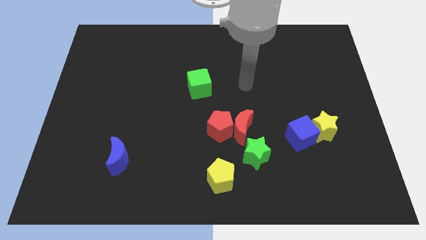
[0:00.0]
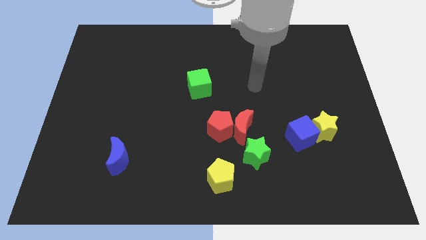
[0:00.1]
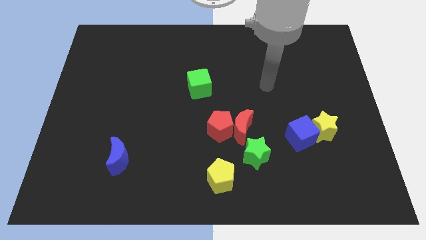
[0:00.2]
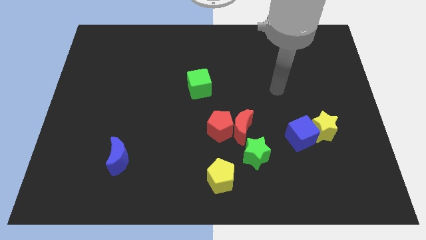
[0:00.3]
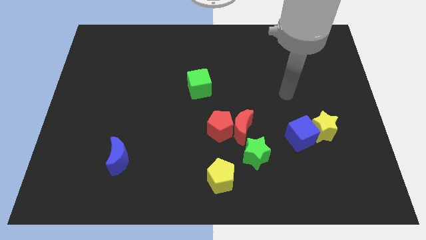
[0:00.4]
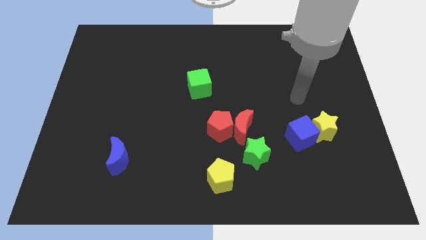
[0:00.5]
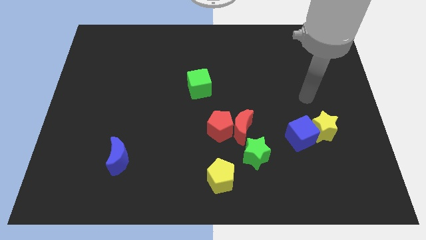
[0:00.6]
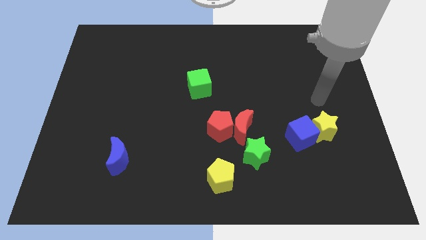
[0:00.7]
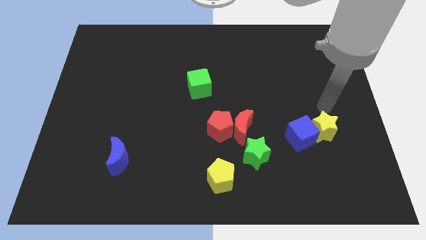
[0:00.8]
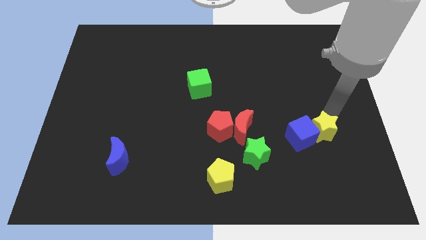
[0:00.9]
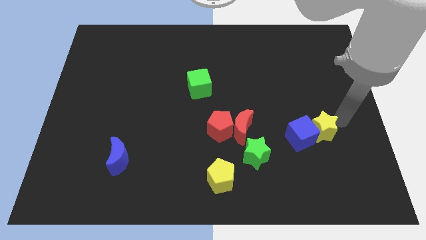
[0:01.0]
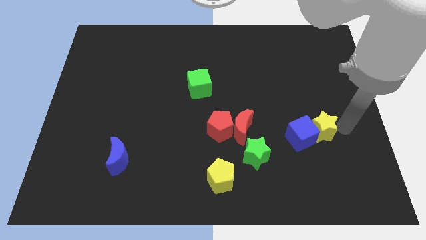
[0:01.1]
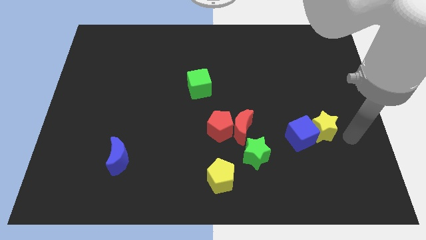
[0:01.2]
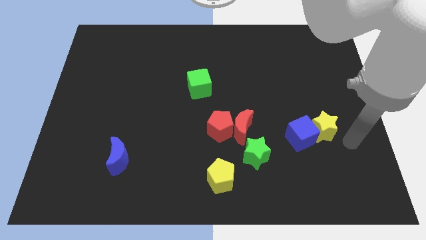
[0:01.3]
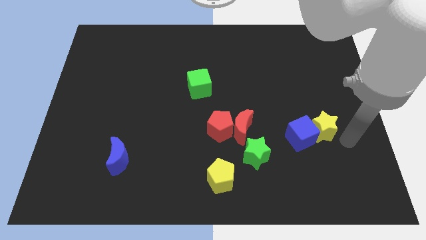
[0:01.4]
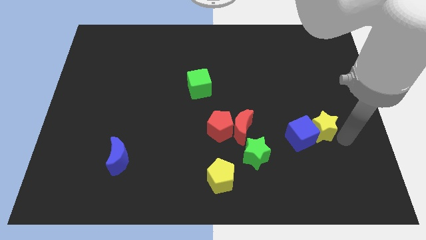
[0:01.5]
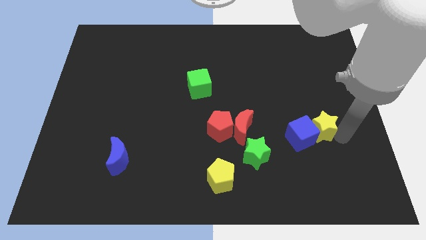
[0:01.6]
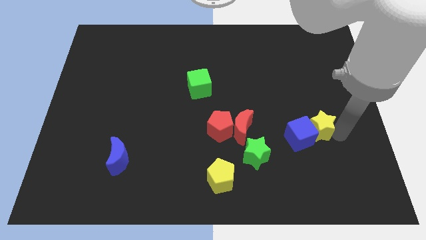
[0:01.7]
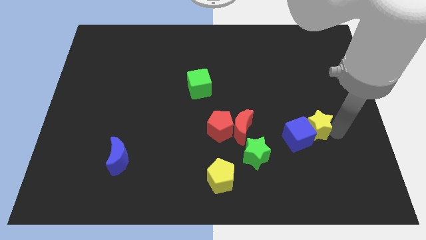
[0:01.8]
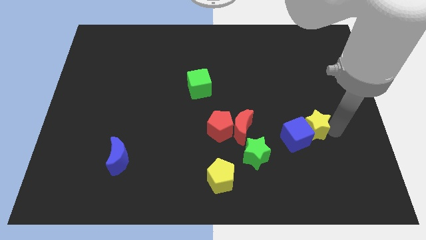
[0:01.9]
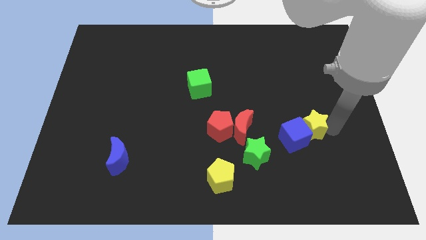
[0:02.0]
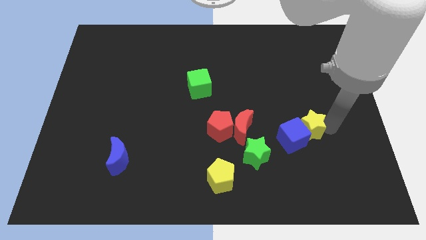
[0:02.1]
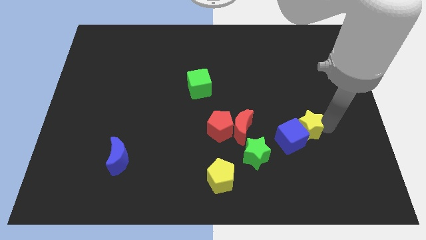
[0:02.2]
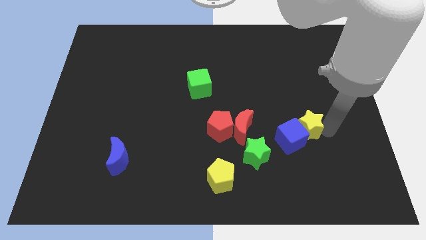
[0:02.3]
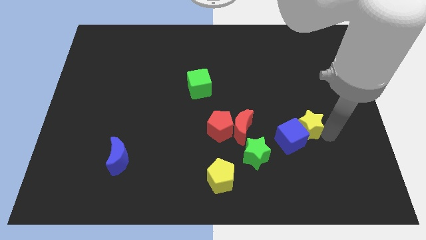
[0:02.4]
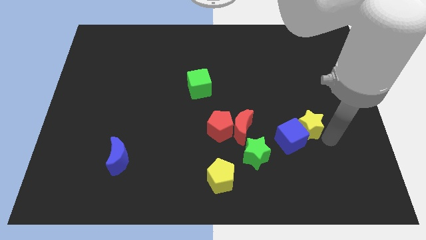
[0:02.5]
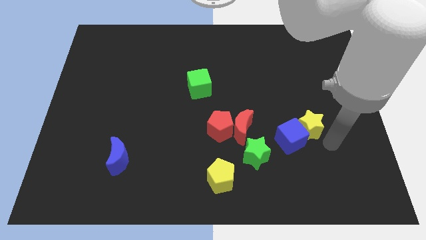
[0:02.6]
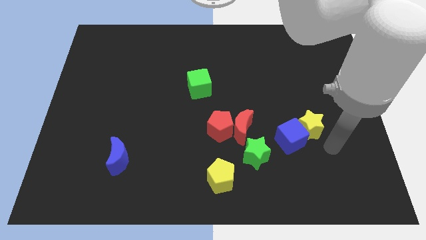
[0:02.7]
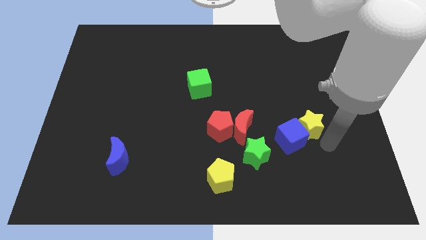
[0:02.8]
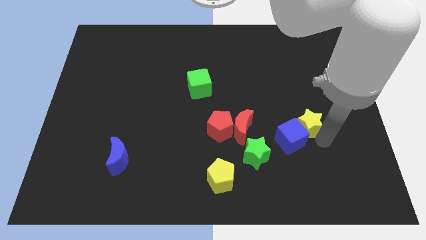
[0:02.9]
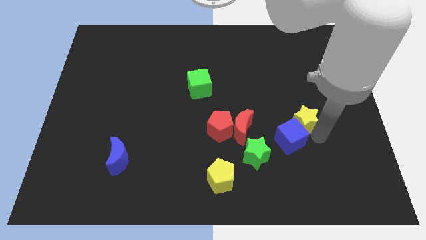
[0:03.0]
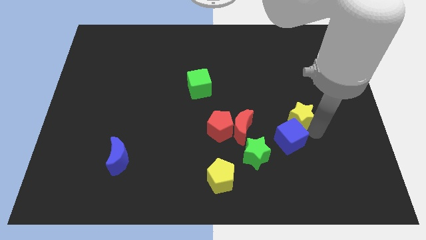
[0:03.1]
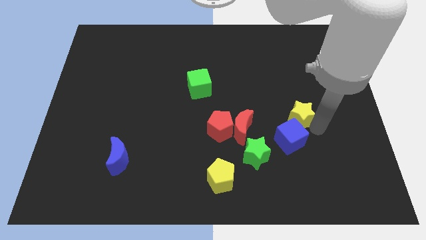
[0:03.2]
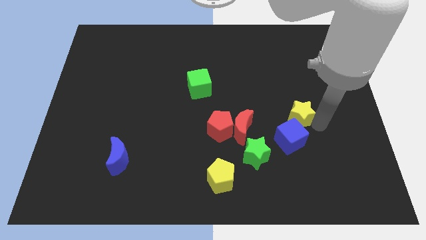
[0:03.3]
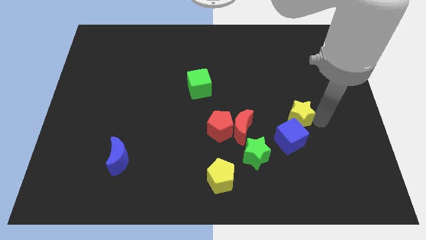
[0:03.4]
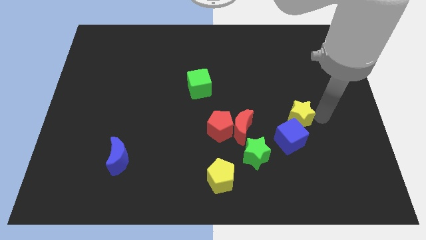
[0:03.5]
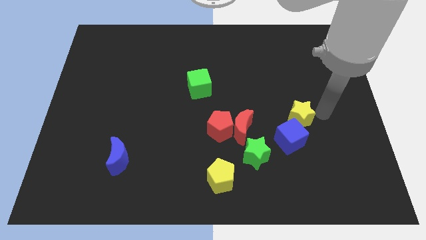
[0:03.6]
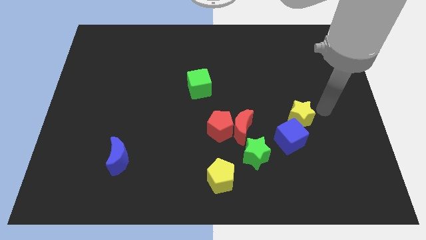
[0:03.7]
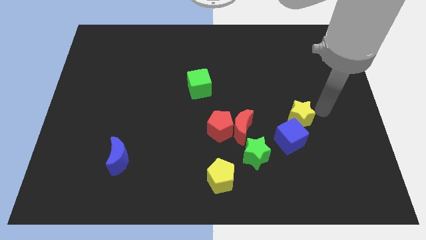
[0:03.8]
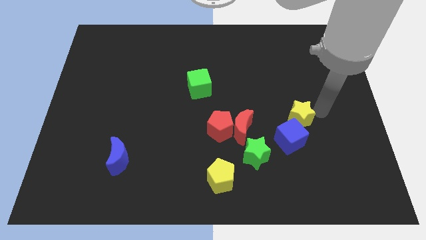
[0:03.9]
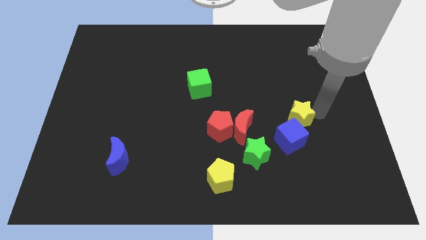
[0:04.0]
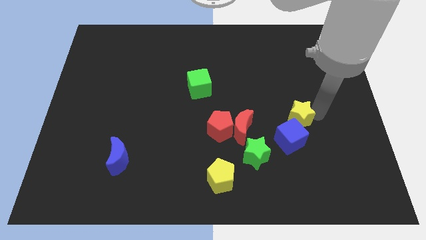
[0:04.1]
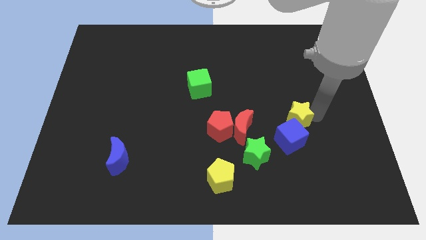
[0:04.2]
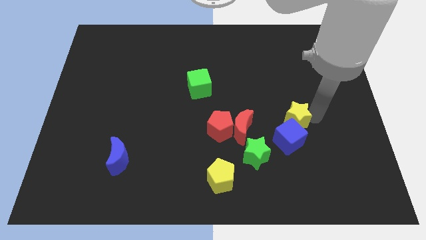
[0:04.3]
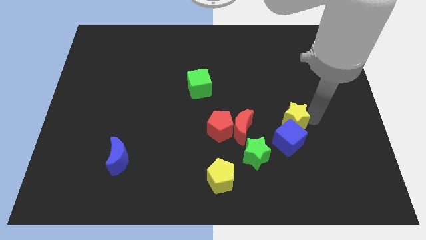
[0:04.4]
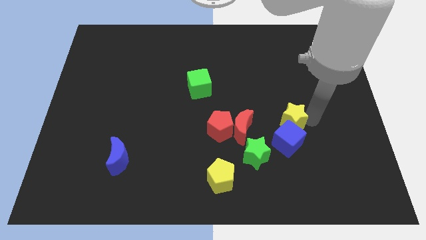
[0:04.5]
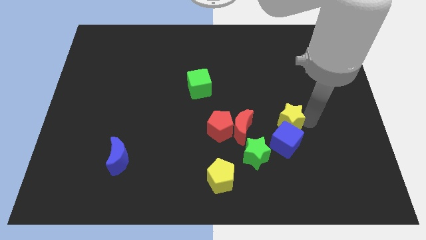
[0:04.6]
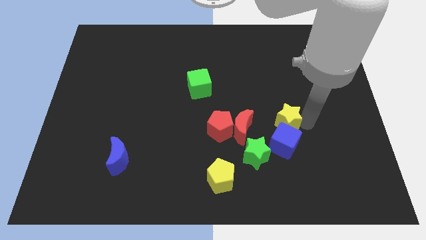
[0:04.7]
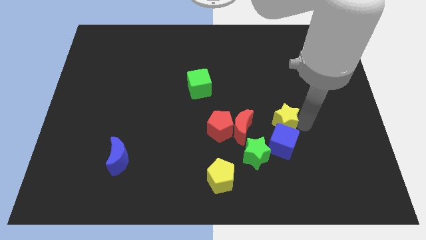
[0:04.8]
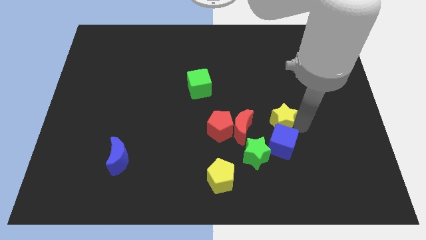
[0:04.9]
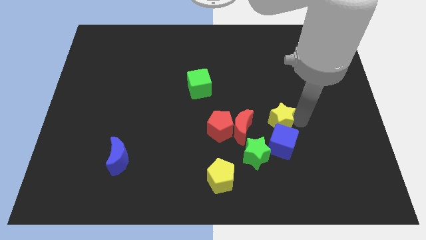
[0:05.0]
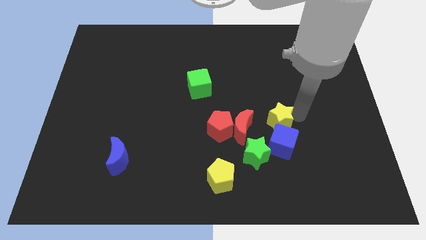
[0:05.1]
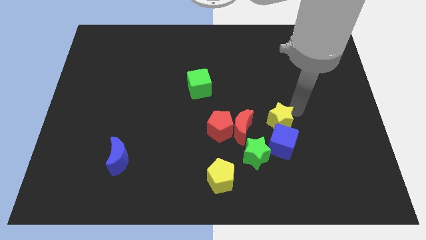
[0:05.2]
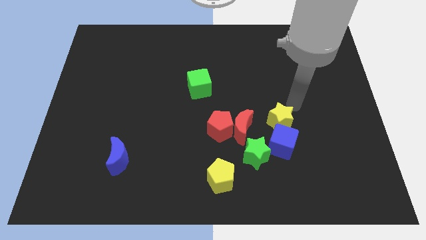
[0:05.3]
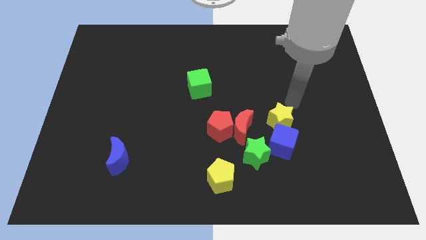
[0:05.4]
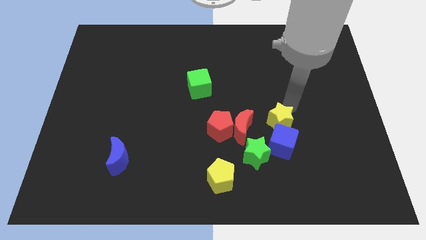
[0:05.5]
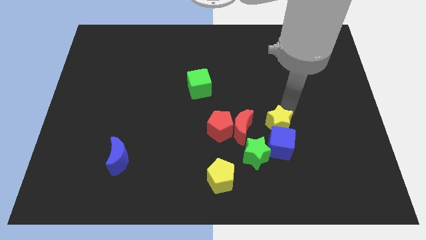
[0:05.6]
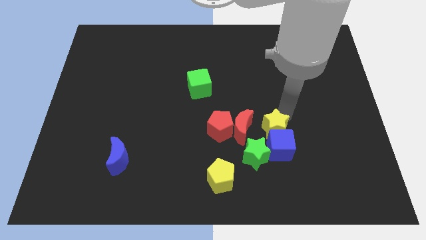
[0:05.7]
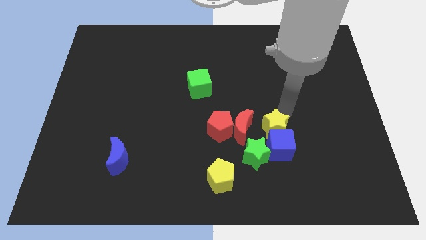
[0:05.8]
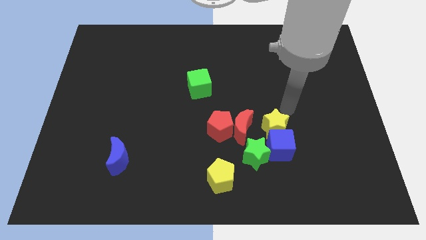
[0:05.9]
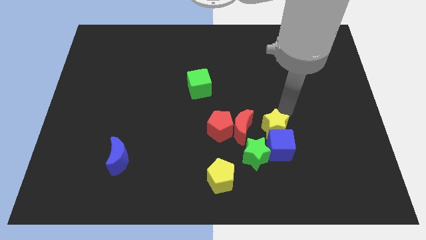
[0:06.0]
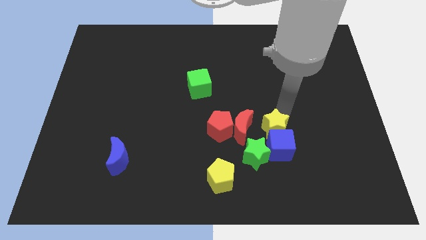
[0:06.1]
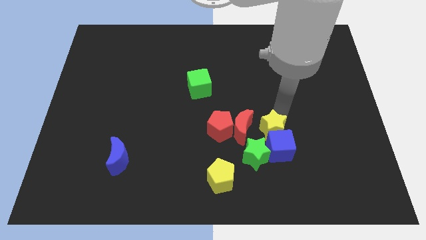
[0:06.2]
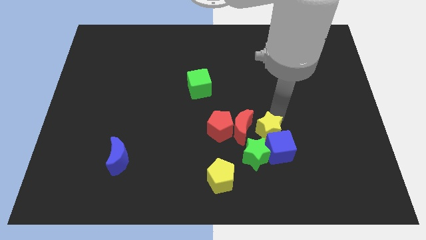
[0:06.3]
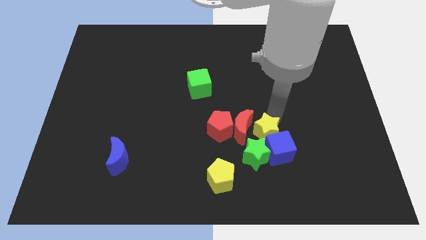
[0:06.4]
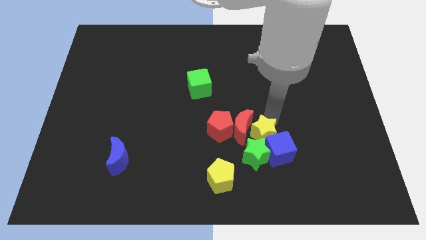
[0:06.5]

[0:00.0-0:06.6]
push the yellow star close to the green star

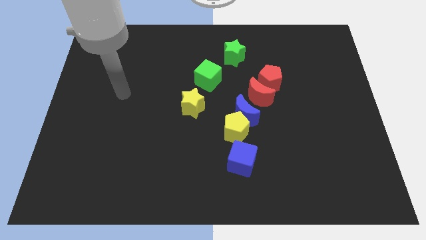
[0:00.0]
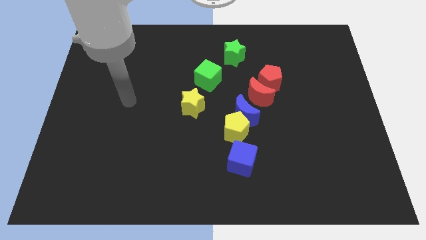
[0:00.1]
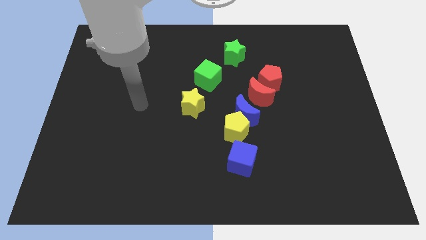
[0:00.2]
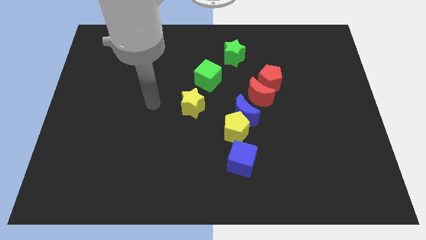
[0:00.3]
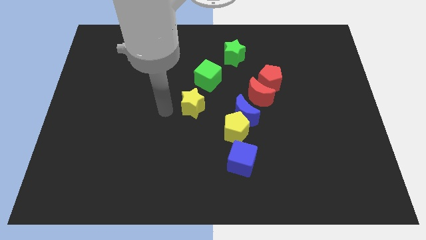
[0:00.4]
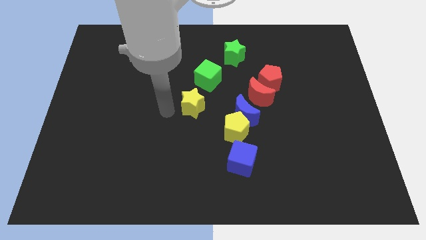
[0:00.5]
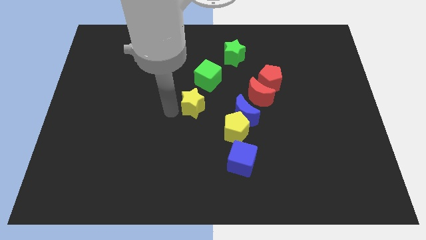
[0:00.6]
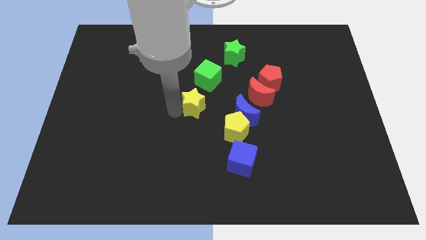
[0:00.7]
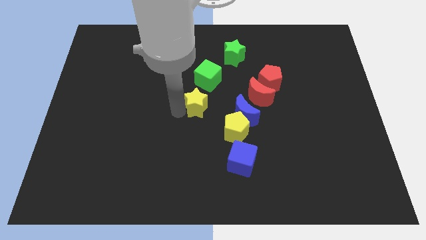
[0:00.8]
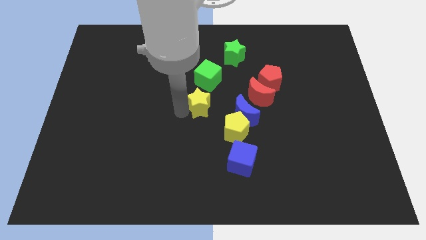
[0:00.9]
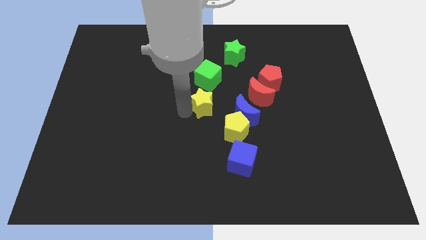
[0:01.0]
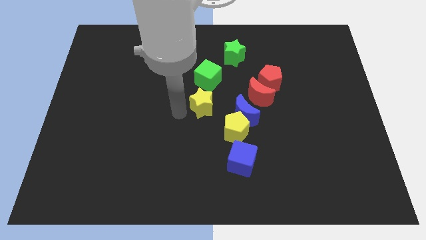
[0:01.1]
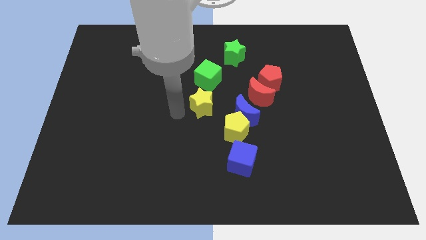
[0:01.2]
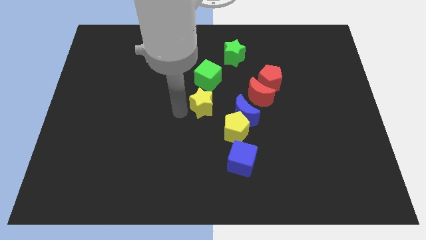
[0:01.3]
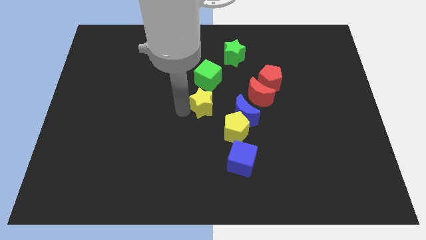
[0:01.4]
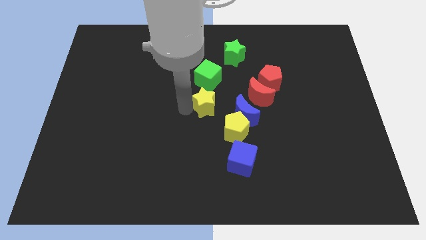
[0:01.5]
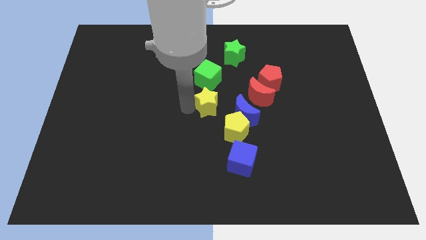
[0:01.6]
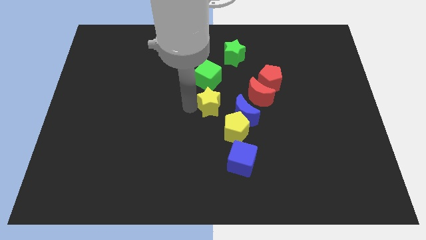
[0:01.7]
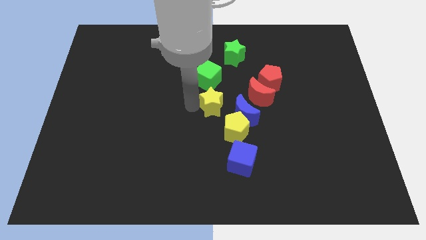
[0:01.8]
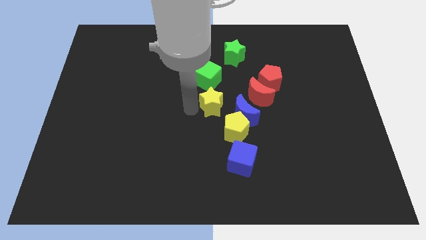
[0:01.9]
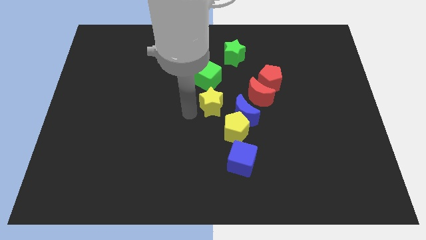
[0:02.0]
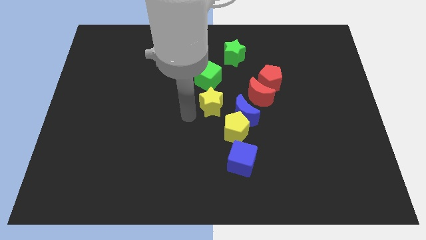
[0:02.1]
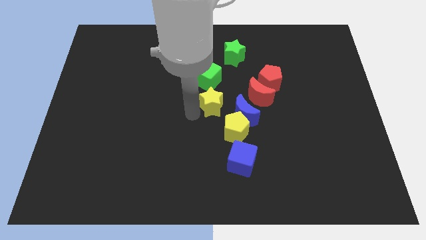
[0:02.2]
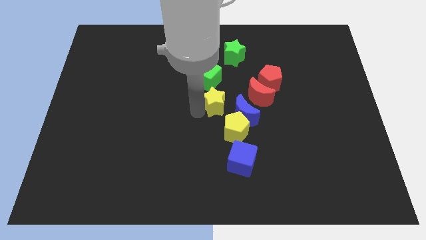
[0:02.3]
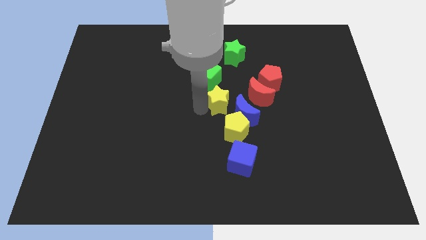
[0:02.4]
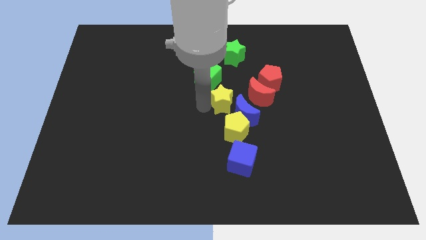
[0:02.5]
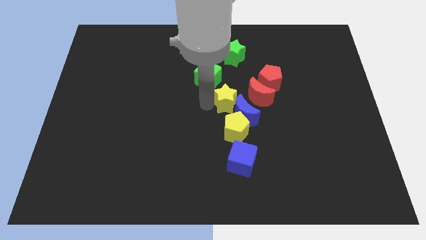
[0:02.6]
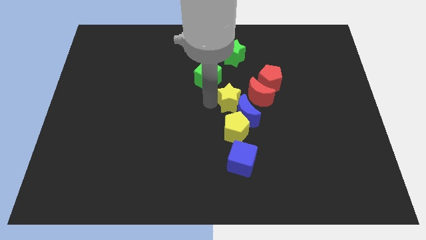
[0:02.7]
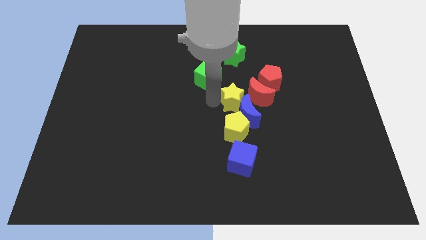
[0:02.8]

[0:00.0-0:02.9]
move the yellow star close to the red moon
